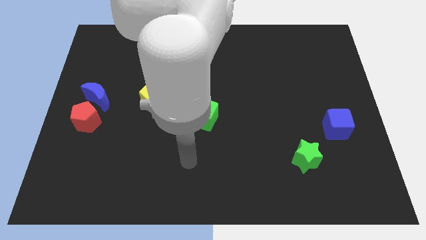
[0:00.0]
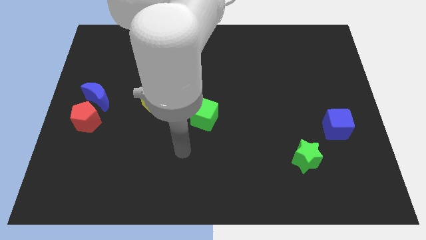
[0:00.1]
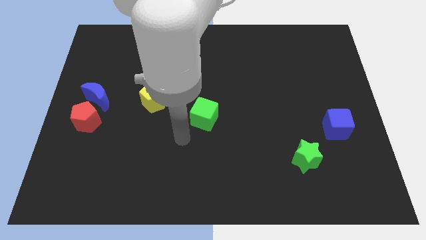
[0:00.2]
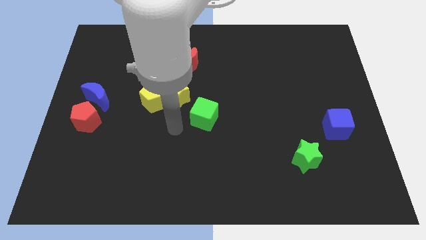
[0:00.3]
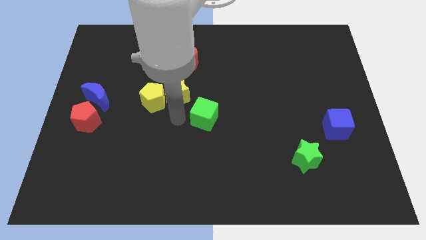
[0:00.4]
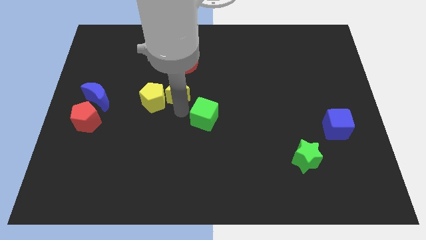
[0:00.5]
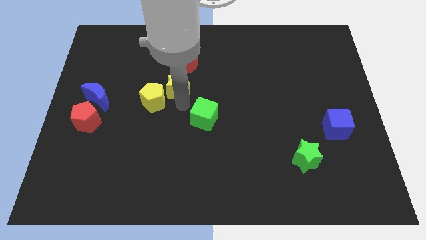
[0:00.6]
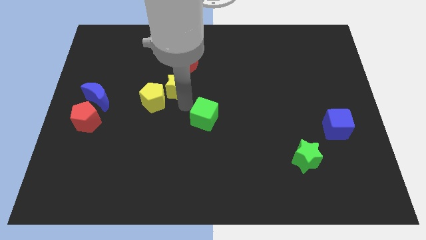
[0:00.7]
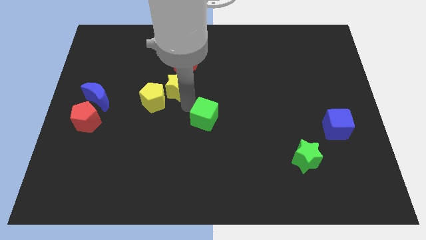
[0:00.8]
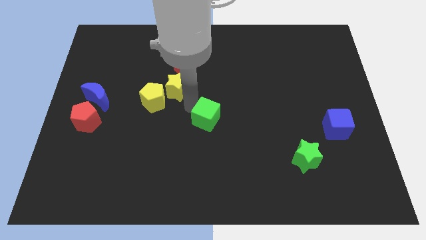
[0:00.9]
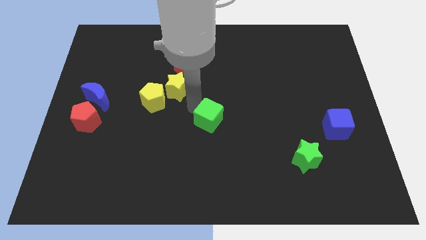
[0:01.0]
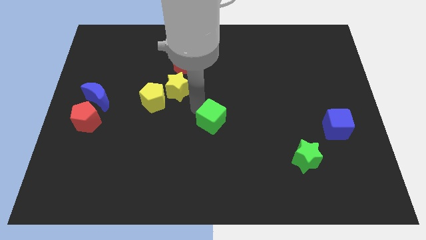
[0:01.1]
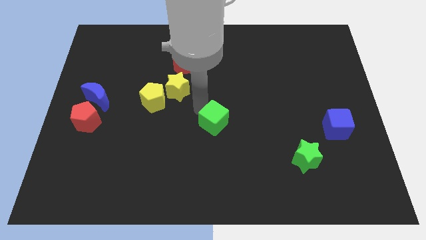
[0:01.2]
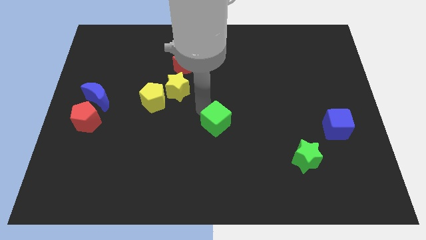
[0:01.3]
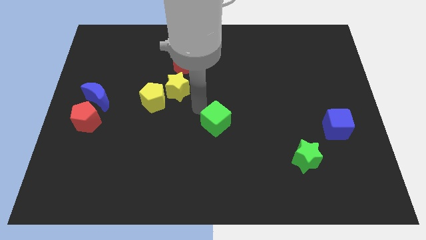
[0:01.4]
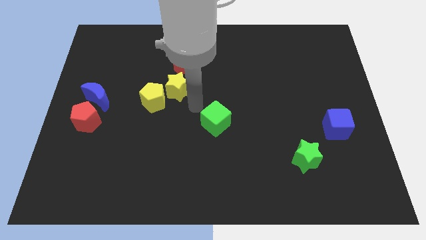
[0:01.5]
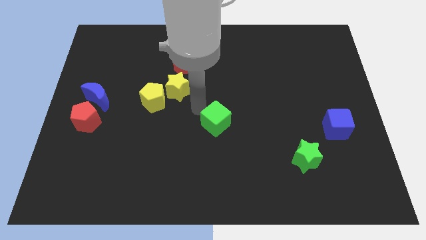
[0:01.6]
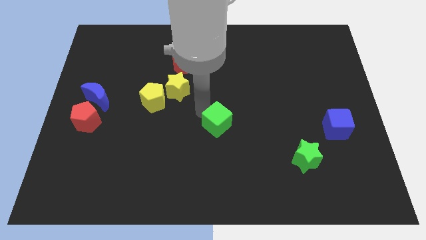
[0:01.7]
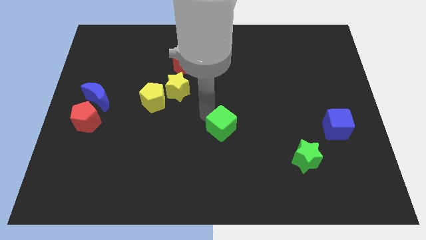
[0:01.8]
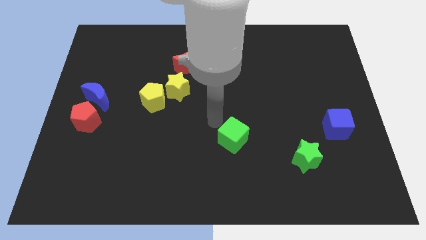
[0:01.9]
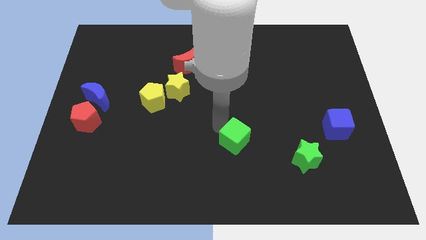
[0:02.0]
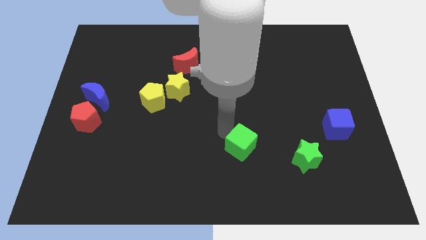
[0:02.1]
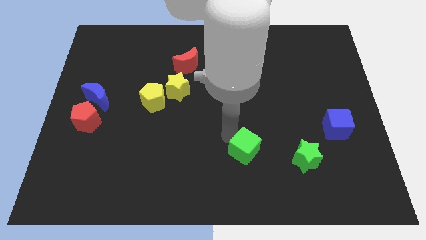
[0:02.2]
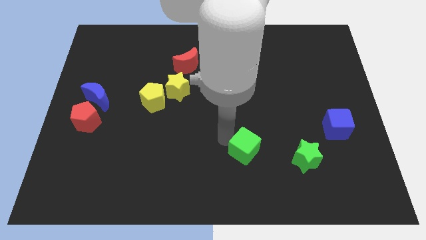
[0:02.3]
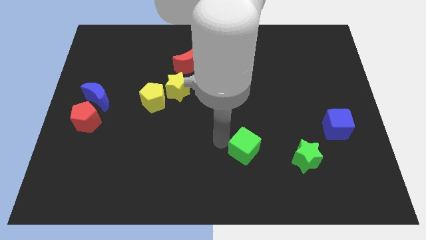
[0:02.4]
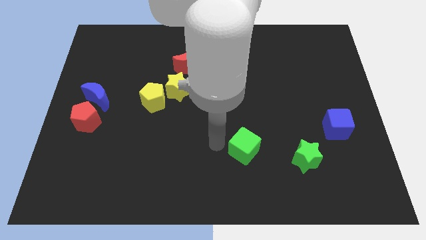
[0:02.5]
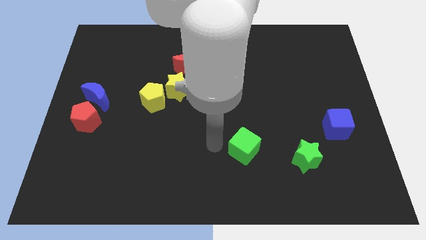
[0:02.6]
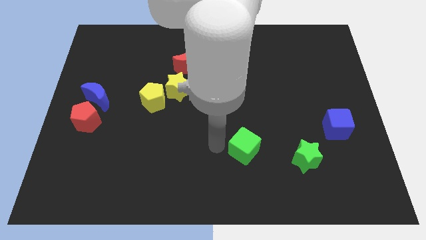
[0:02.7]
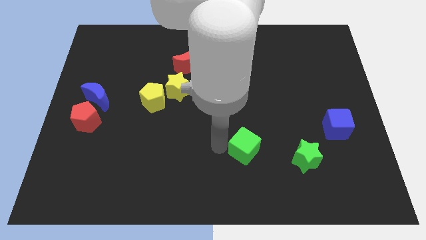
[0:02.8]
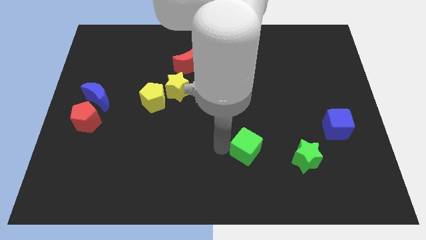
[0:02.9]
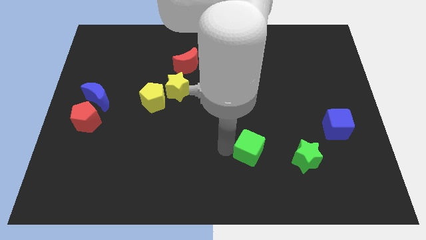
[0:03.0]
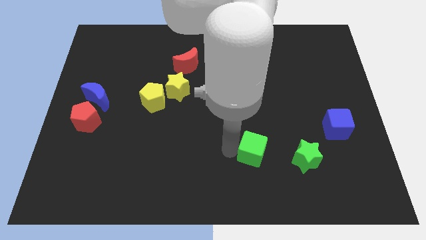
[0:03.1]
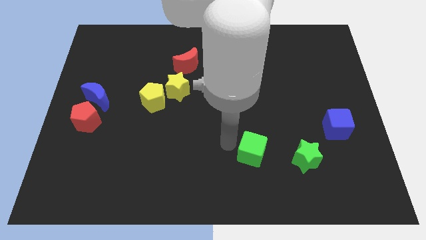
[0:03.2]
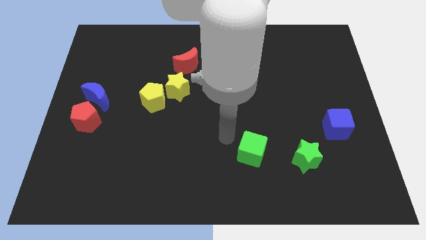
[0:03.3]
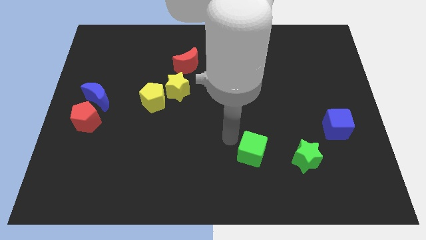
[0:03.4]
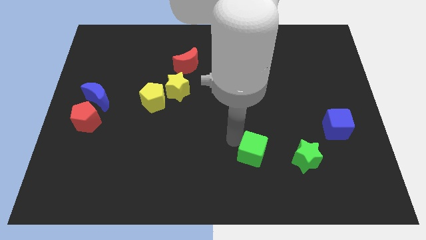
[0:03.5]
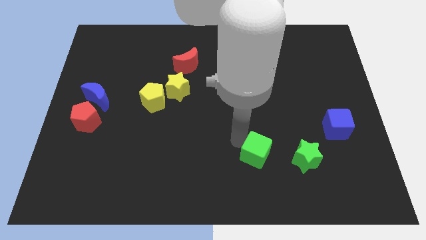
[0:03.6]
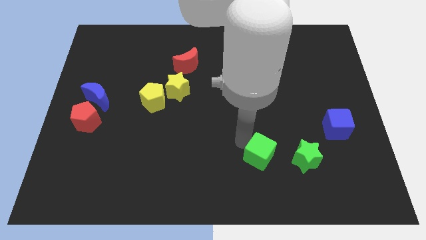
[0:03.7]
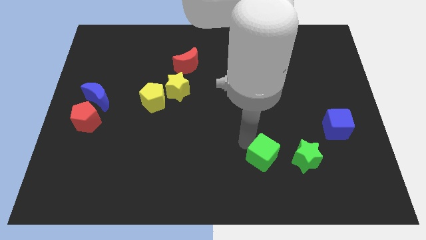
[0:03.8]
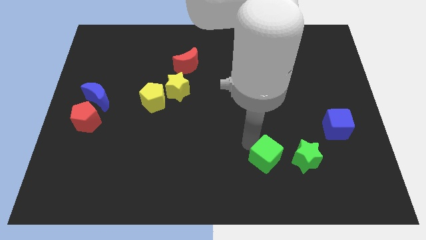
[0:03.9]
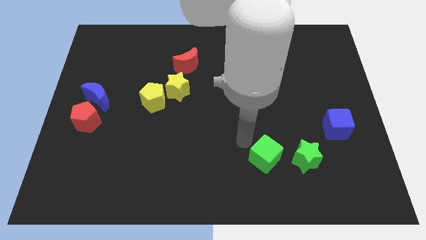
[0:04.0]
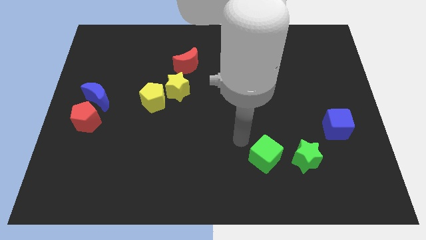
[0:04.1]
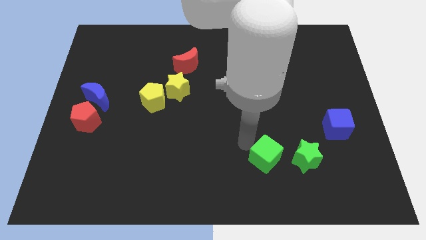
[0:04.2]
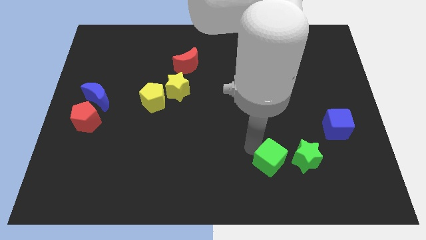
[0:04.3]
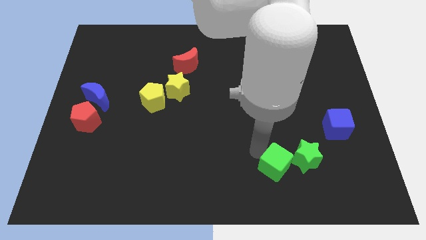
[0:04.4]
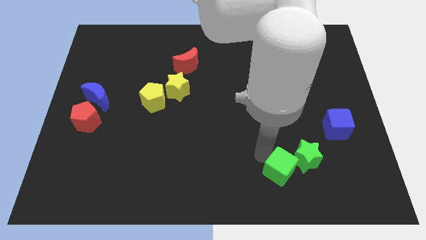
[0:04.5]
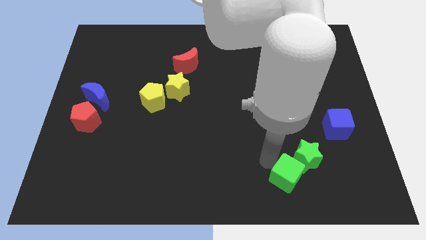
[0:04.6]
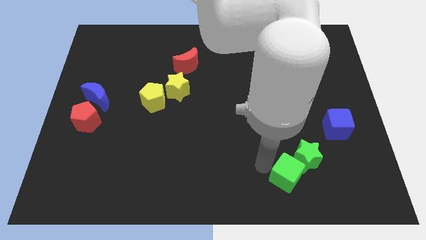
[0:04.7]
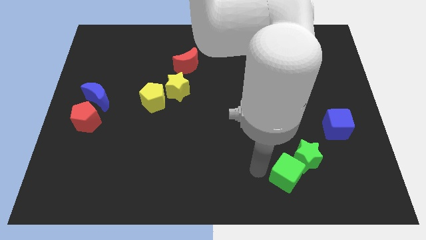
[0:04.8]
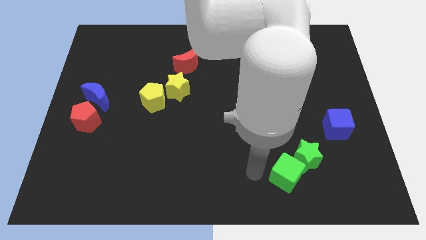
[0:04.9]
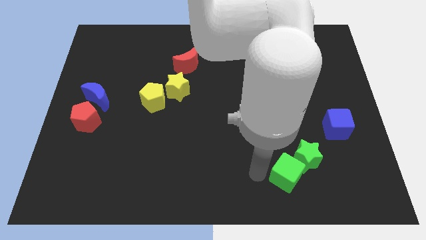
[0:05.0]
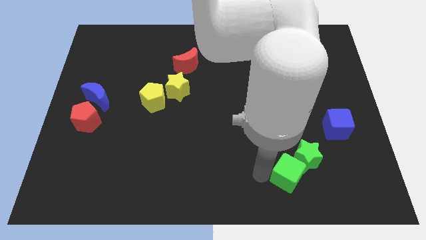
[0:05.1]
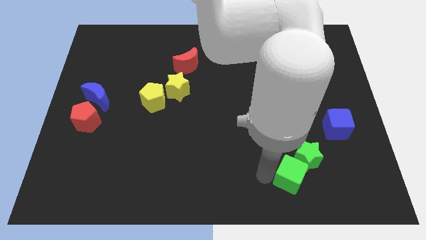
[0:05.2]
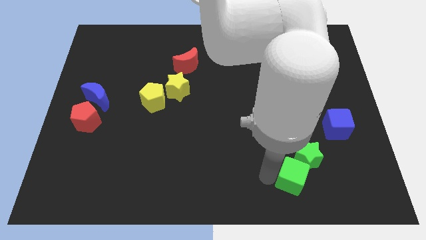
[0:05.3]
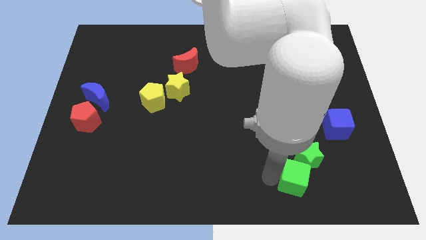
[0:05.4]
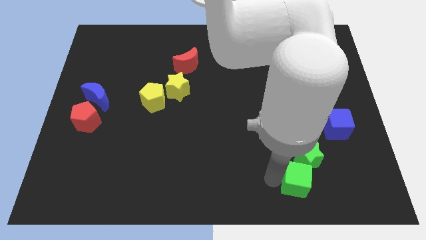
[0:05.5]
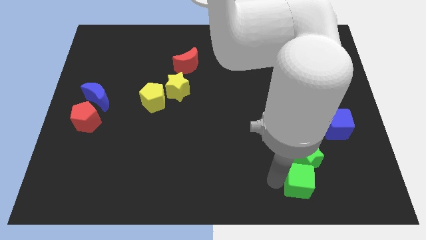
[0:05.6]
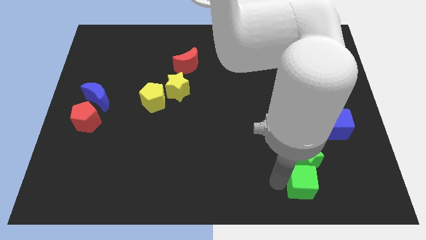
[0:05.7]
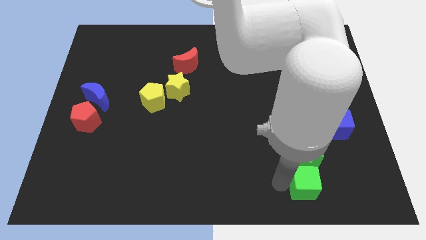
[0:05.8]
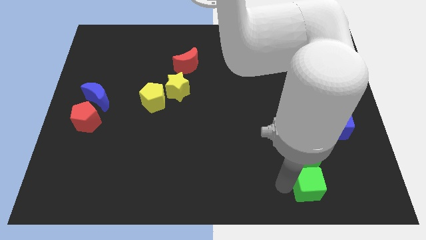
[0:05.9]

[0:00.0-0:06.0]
slide the green cube to the bottom right of the green star

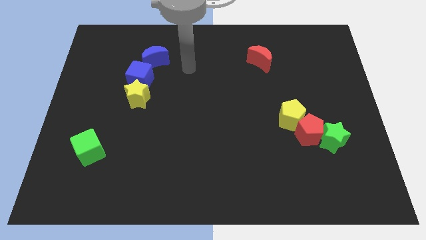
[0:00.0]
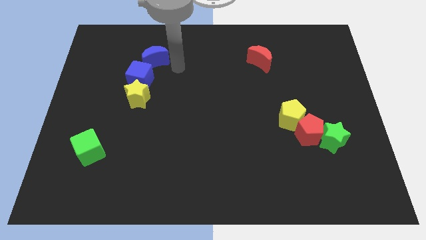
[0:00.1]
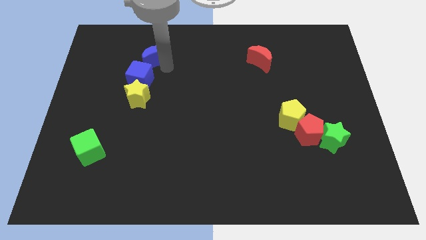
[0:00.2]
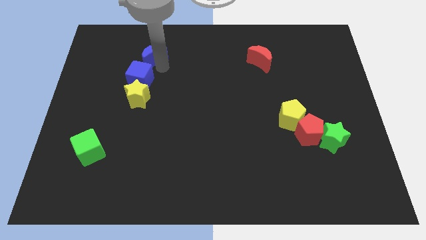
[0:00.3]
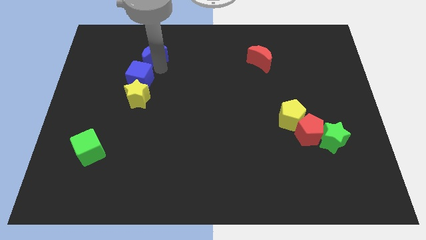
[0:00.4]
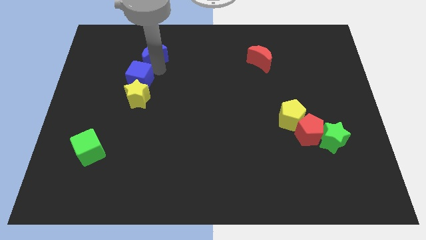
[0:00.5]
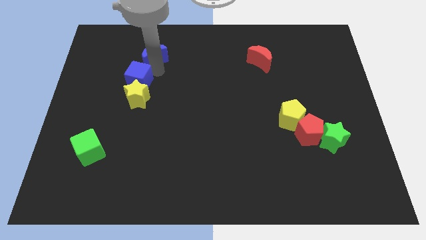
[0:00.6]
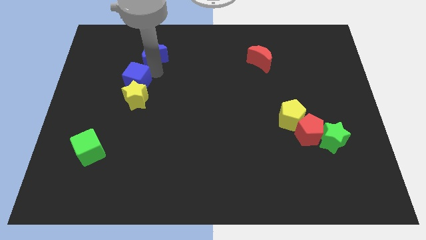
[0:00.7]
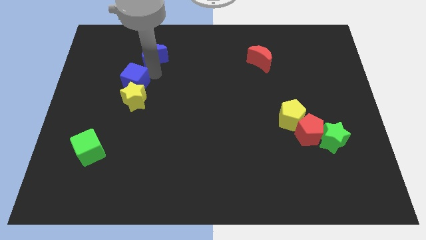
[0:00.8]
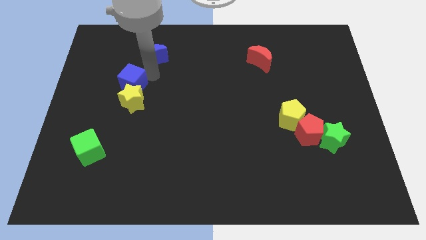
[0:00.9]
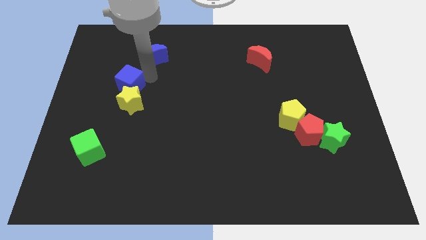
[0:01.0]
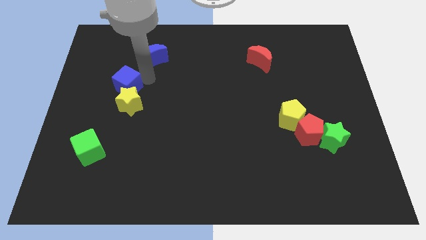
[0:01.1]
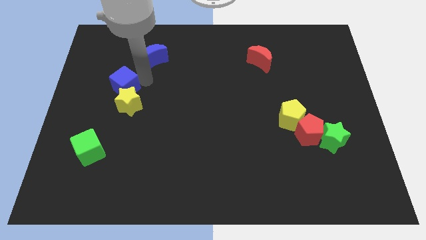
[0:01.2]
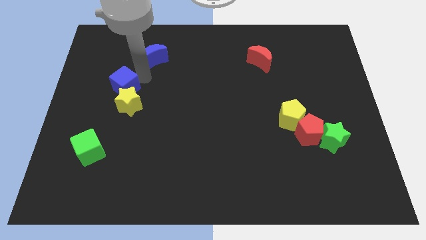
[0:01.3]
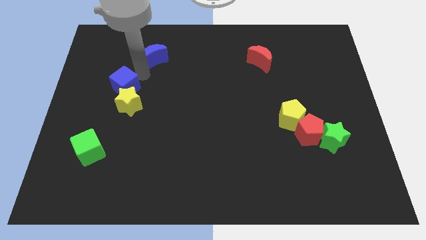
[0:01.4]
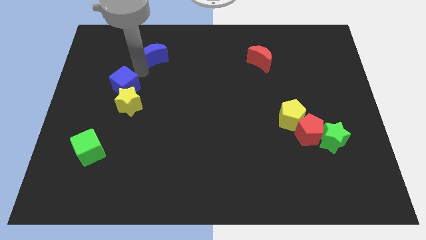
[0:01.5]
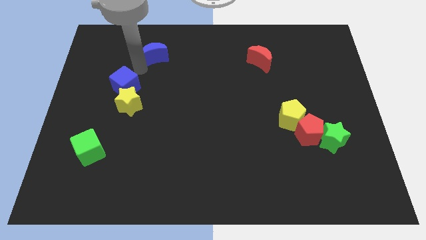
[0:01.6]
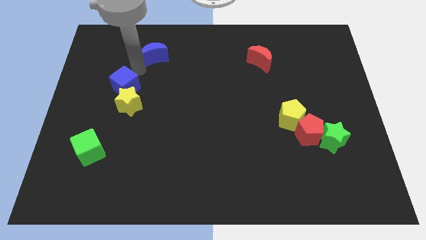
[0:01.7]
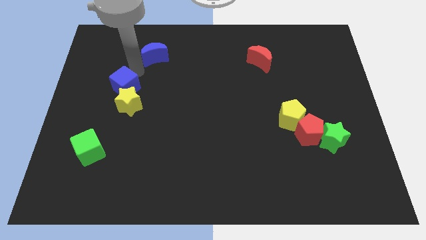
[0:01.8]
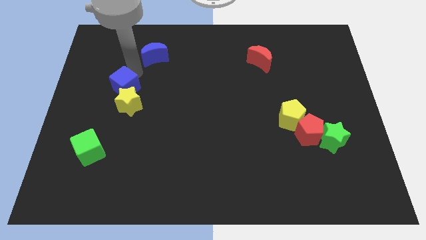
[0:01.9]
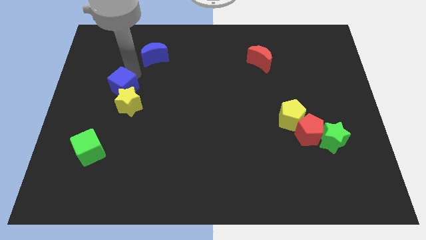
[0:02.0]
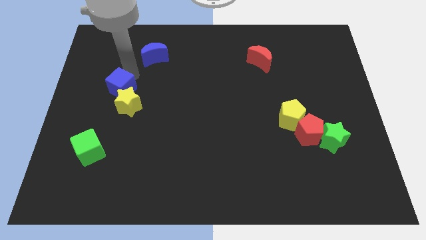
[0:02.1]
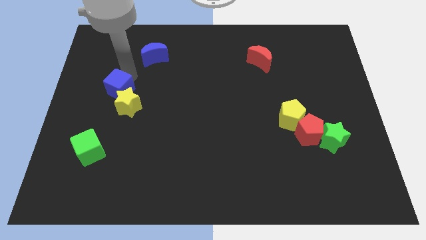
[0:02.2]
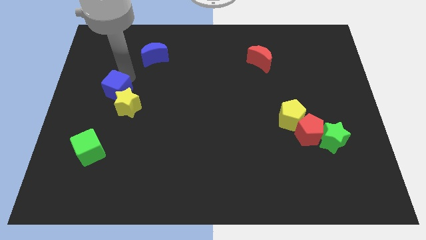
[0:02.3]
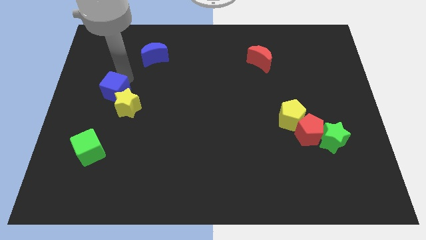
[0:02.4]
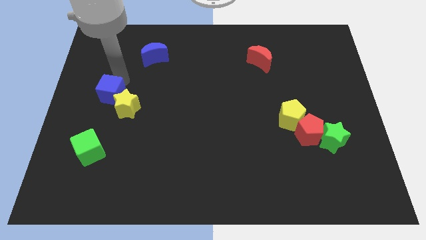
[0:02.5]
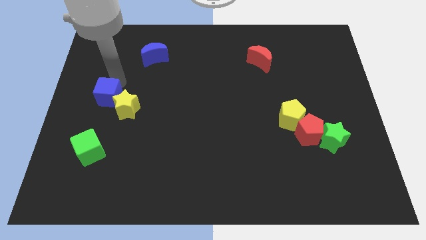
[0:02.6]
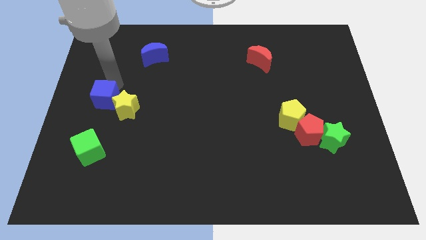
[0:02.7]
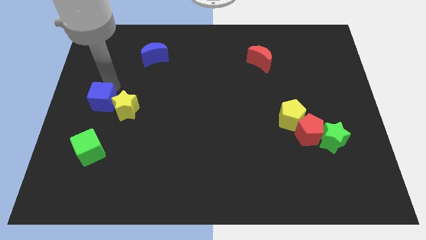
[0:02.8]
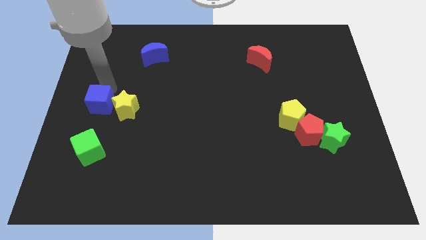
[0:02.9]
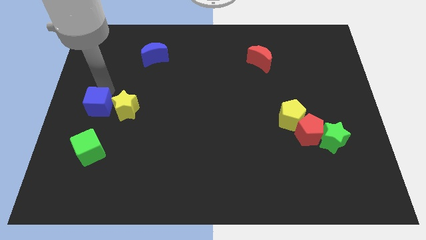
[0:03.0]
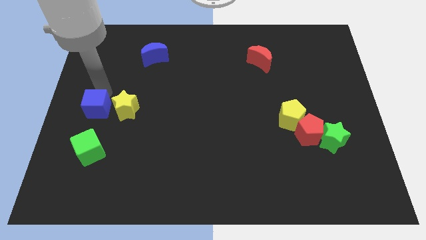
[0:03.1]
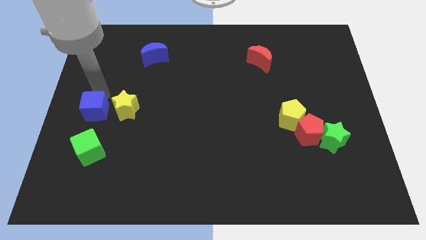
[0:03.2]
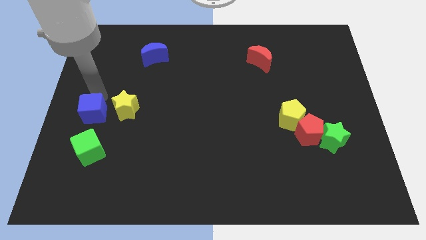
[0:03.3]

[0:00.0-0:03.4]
put the blue cube diagonally down and to the left of the yellow star
